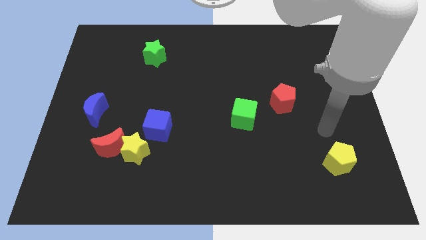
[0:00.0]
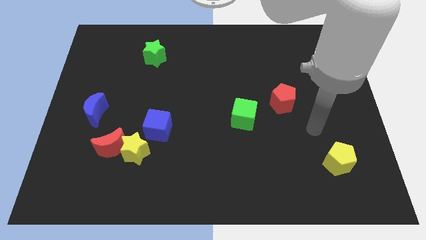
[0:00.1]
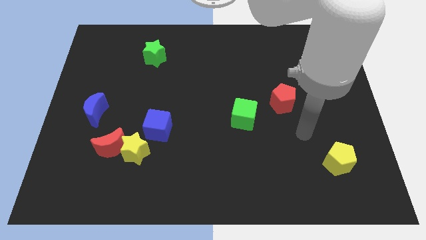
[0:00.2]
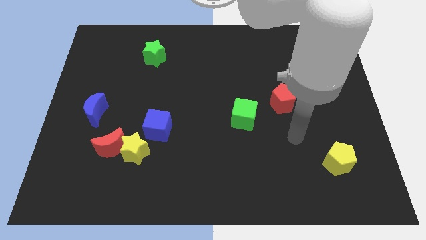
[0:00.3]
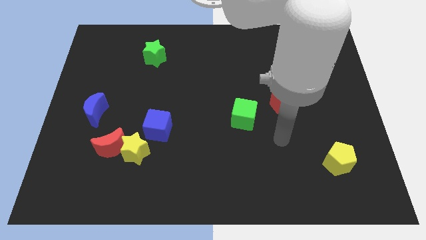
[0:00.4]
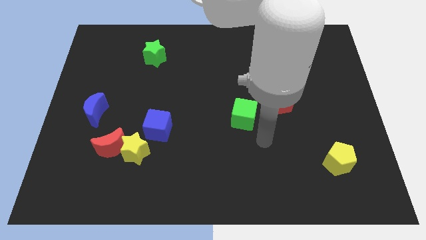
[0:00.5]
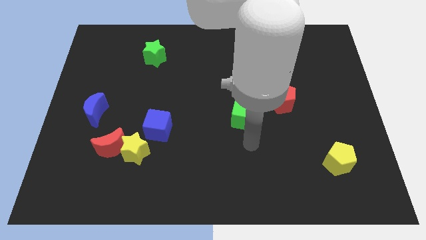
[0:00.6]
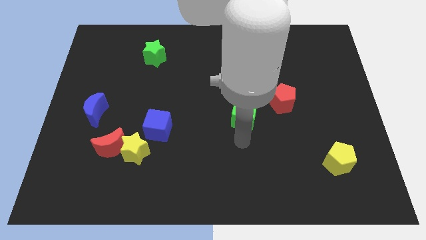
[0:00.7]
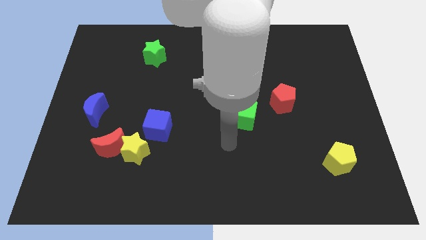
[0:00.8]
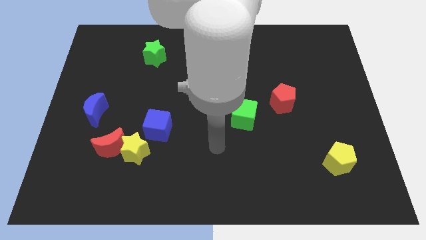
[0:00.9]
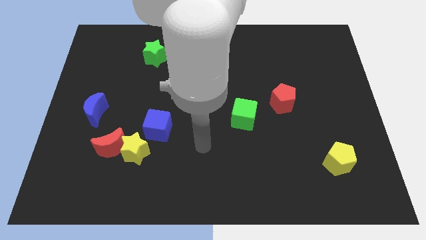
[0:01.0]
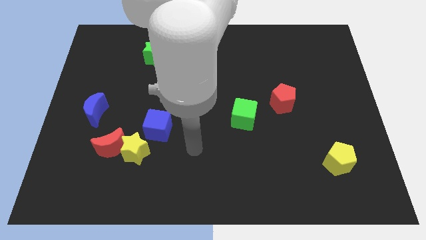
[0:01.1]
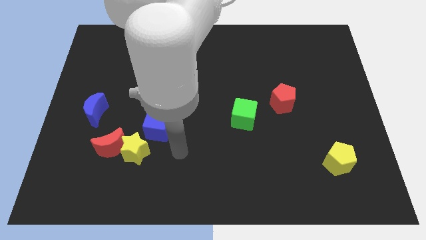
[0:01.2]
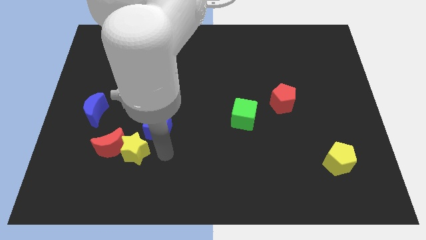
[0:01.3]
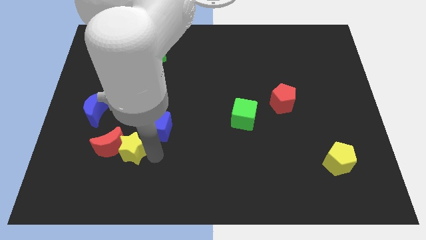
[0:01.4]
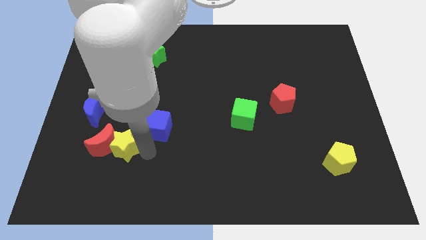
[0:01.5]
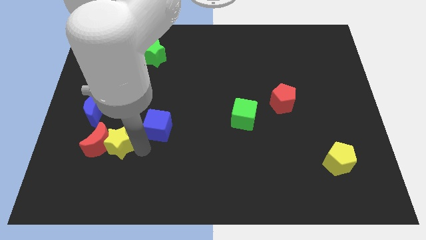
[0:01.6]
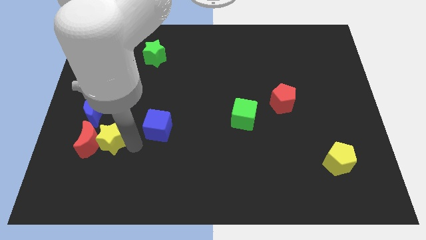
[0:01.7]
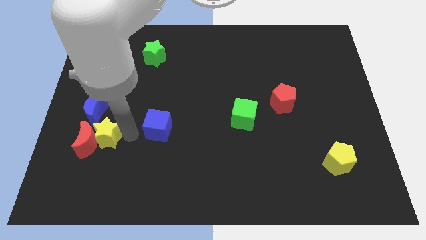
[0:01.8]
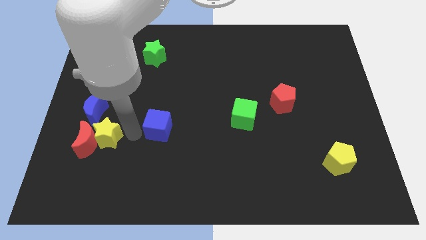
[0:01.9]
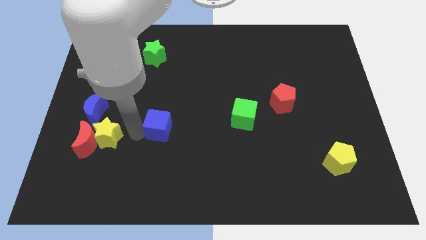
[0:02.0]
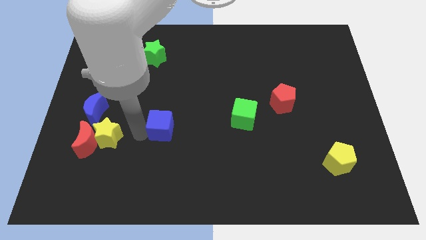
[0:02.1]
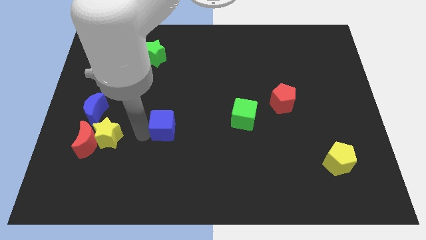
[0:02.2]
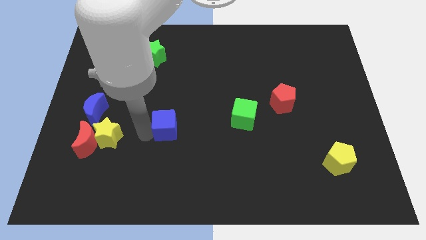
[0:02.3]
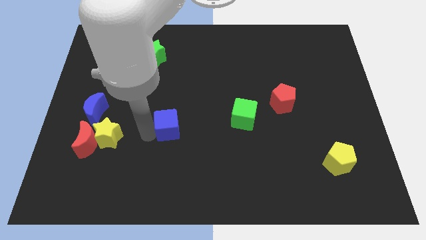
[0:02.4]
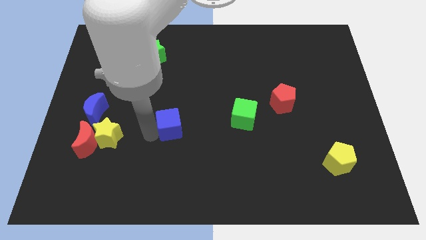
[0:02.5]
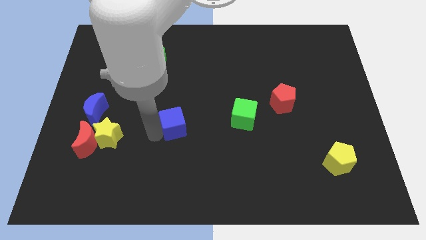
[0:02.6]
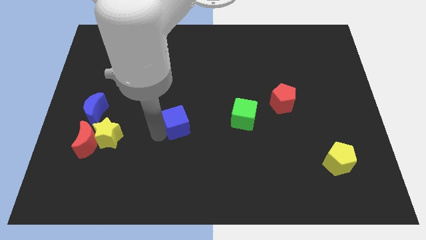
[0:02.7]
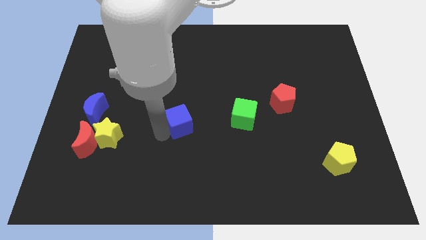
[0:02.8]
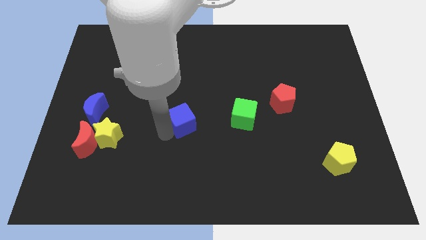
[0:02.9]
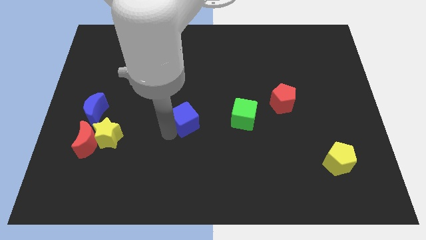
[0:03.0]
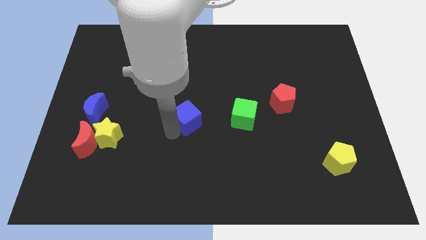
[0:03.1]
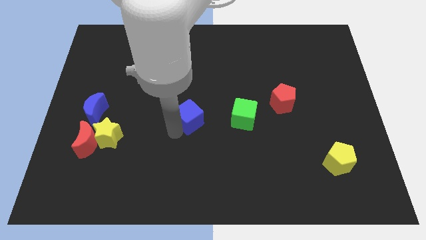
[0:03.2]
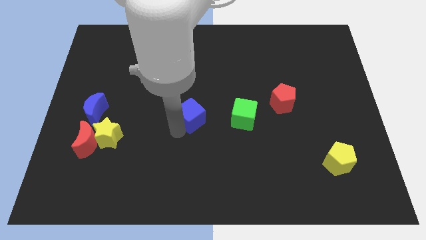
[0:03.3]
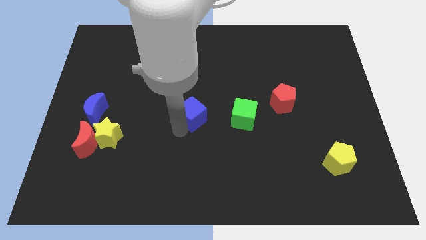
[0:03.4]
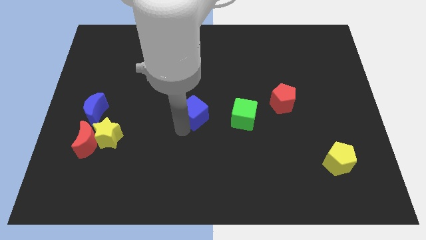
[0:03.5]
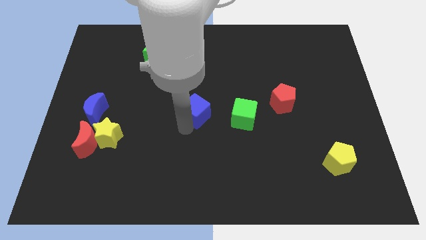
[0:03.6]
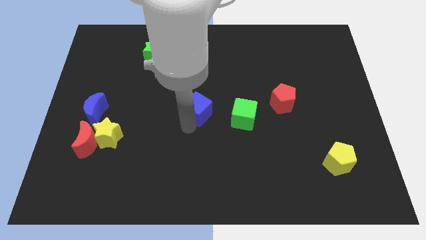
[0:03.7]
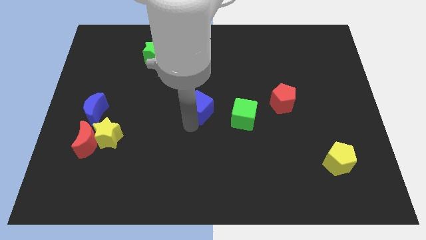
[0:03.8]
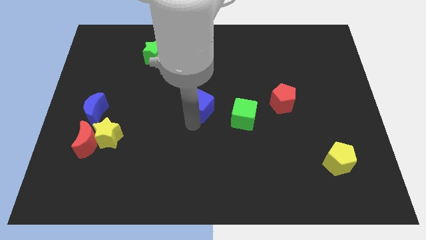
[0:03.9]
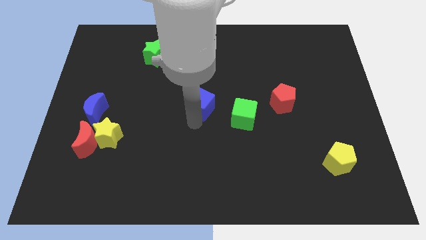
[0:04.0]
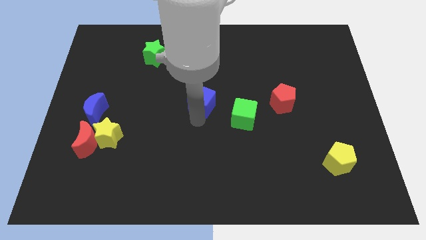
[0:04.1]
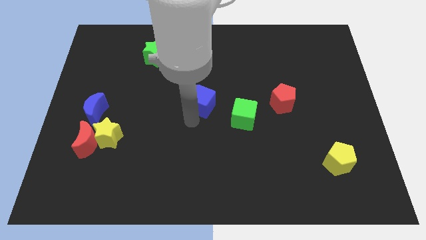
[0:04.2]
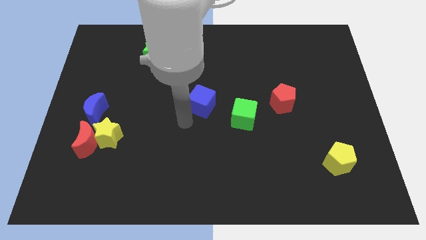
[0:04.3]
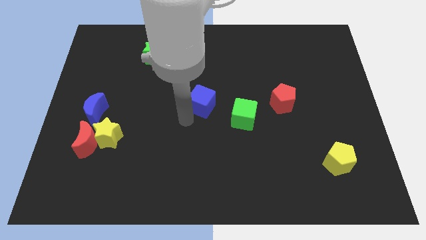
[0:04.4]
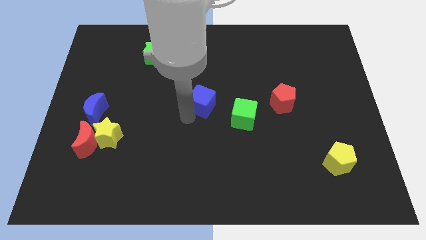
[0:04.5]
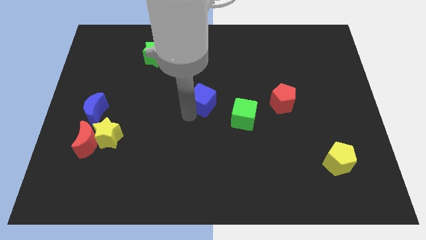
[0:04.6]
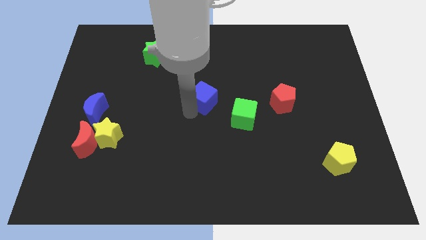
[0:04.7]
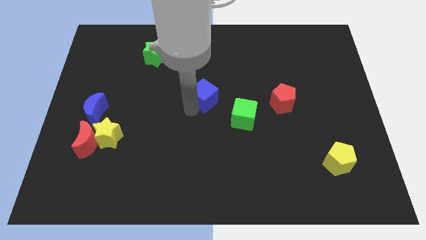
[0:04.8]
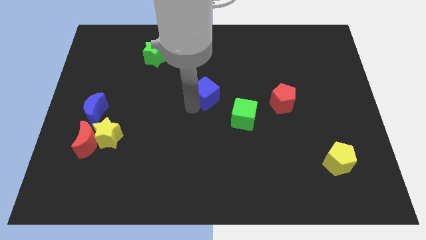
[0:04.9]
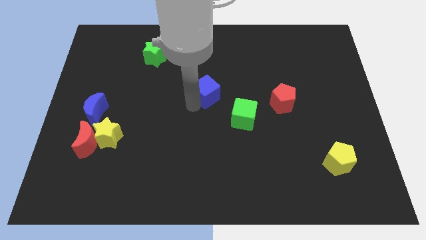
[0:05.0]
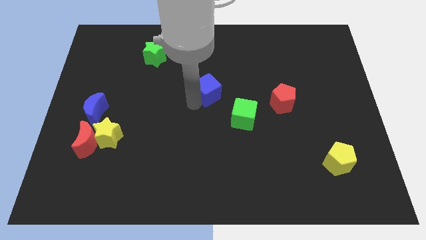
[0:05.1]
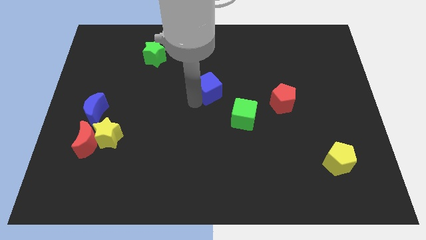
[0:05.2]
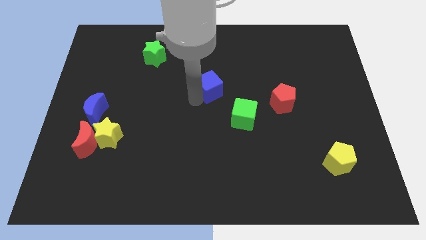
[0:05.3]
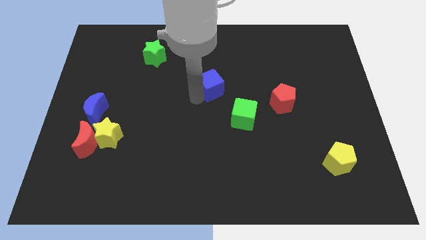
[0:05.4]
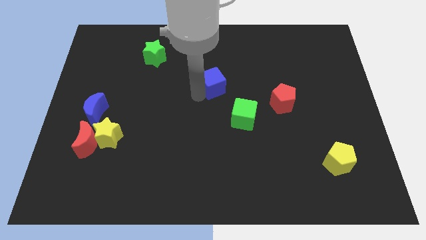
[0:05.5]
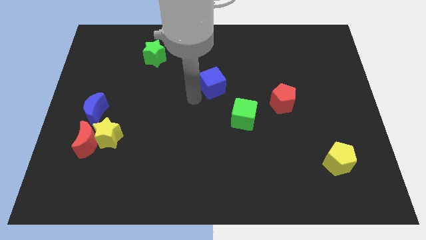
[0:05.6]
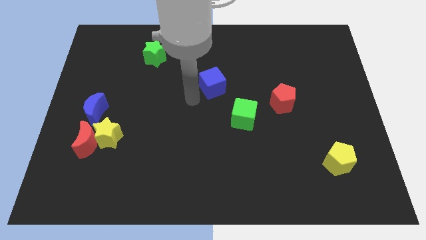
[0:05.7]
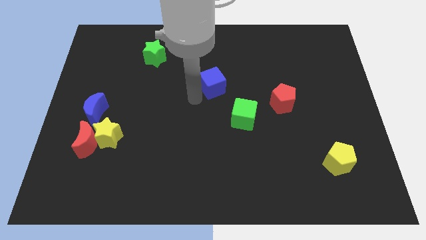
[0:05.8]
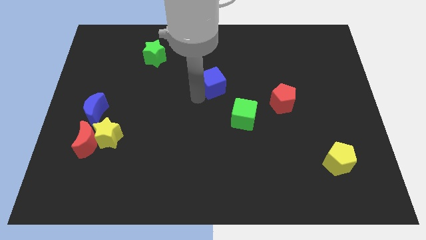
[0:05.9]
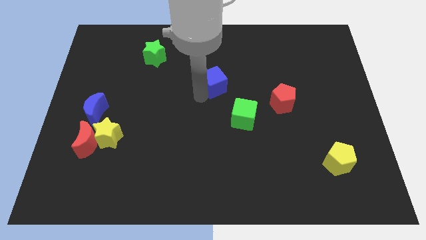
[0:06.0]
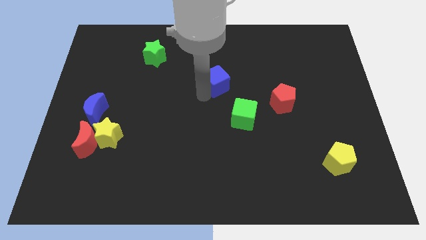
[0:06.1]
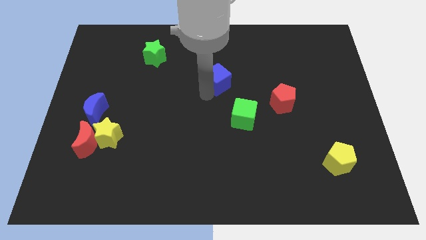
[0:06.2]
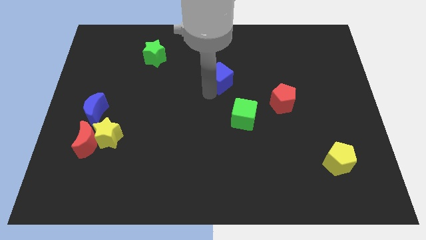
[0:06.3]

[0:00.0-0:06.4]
push the blue cube up and to the right diagonally

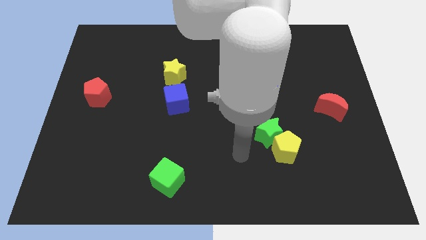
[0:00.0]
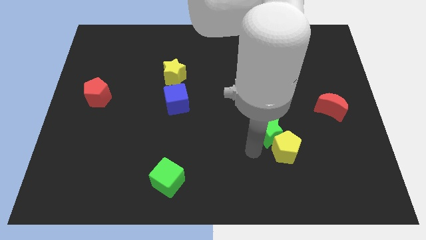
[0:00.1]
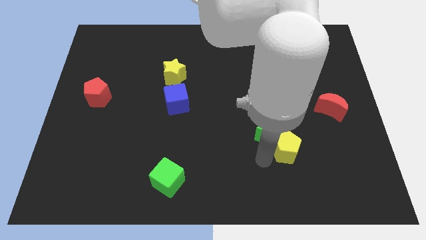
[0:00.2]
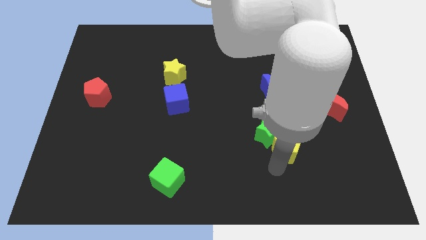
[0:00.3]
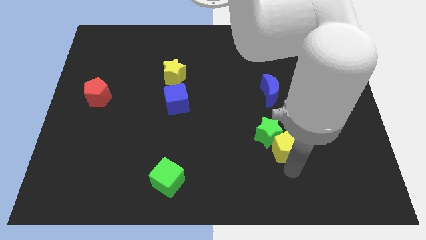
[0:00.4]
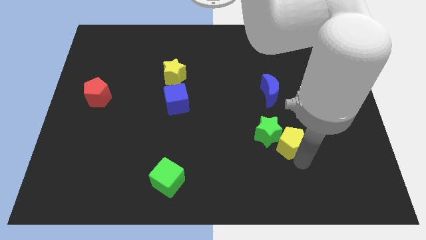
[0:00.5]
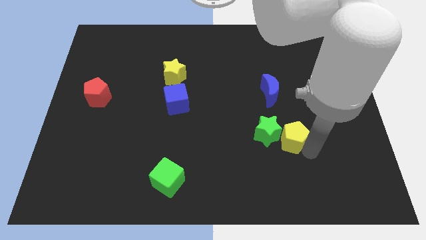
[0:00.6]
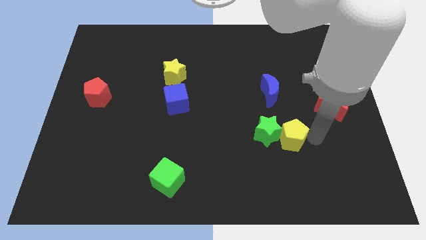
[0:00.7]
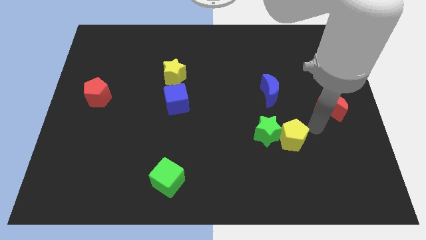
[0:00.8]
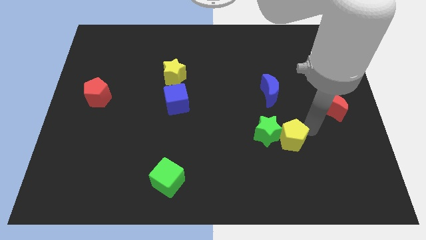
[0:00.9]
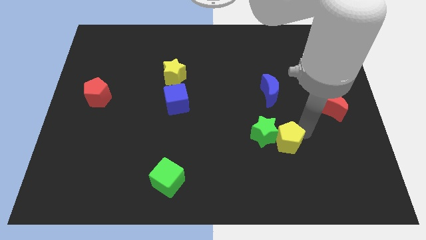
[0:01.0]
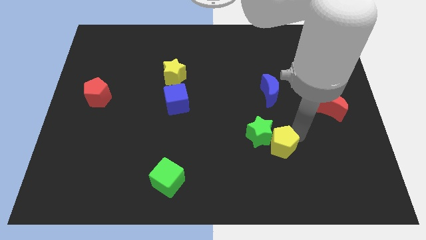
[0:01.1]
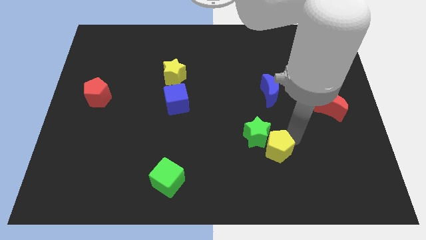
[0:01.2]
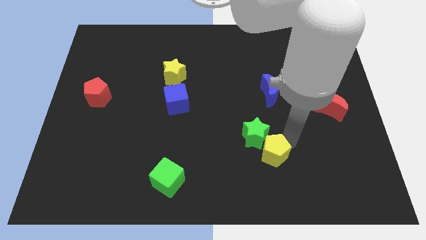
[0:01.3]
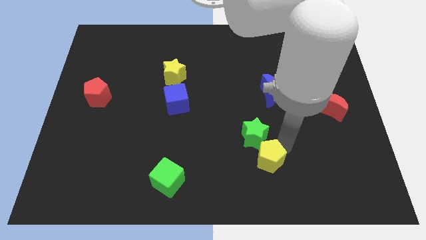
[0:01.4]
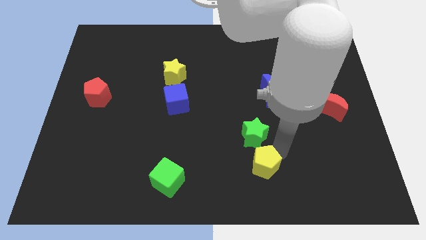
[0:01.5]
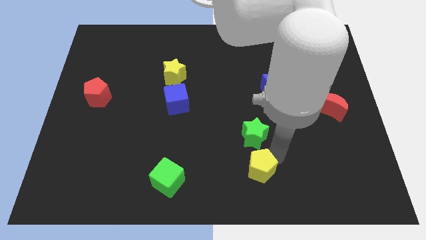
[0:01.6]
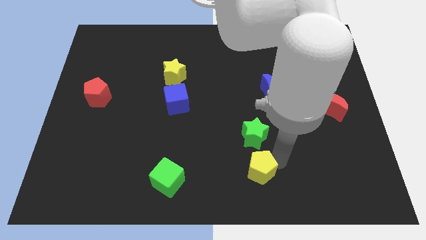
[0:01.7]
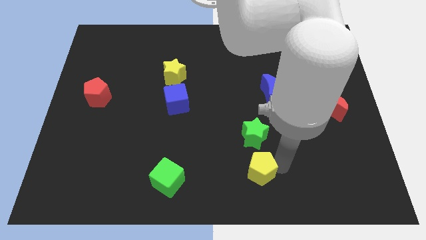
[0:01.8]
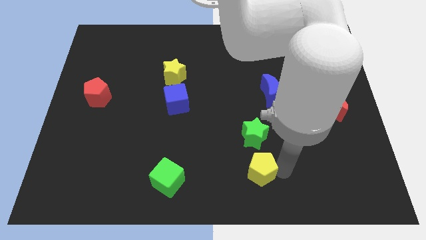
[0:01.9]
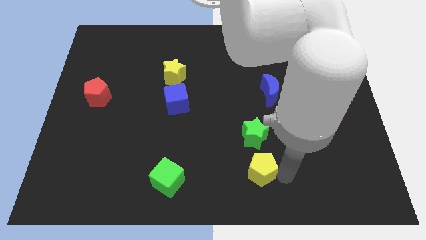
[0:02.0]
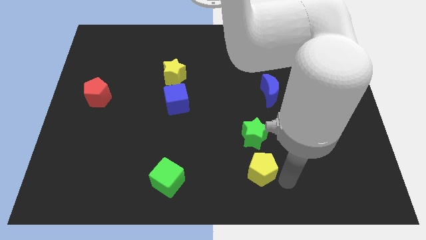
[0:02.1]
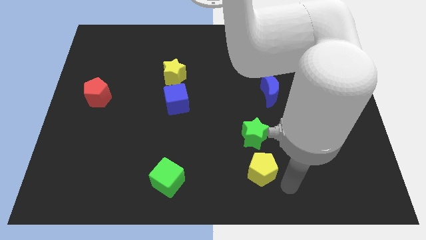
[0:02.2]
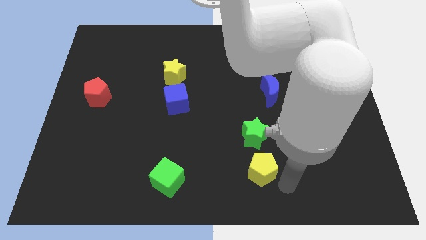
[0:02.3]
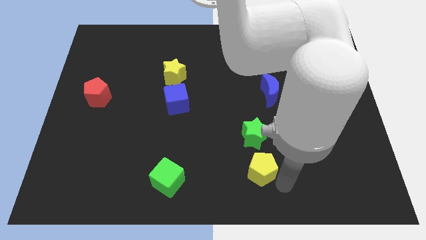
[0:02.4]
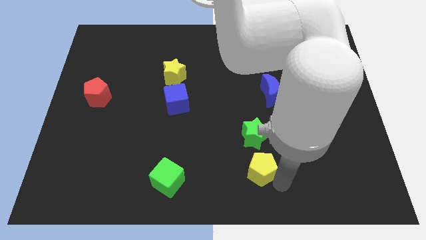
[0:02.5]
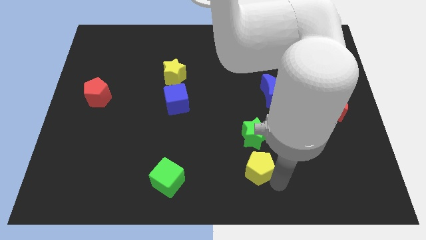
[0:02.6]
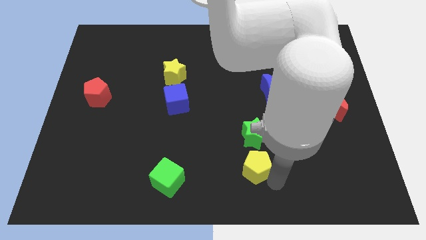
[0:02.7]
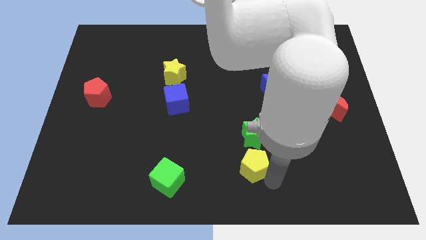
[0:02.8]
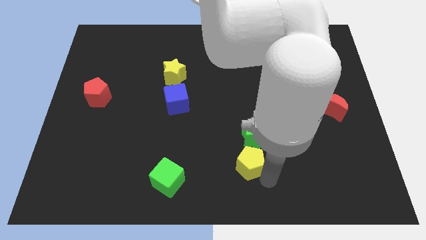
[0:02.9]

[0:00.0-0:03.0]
slightly push the yellow pentagon to the left
